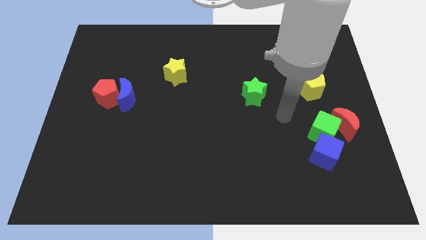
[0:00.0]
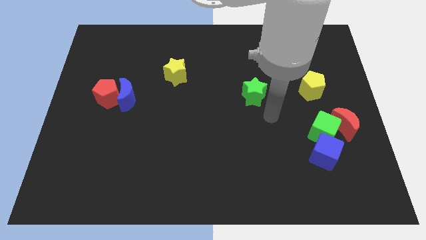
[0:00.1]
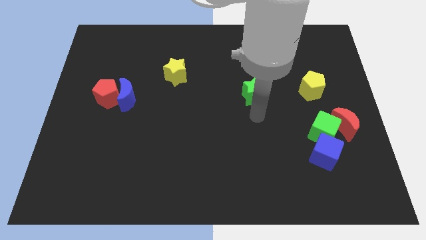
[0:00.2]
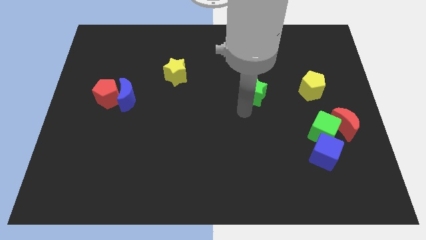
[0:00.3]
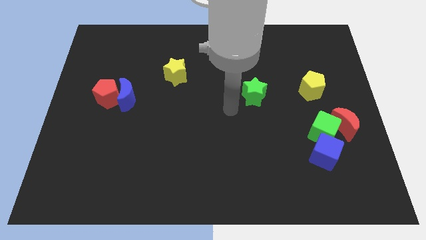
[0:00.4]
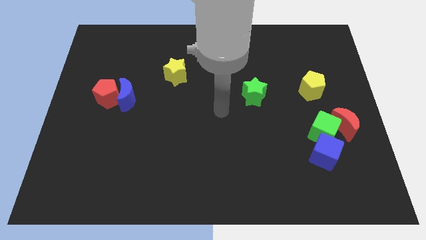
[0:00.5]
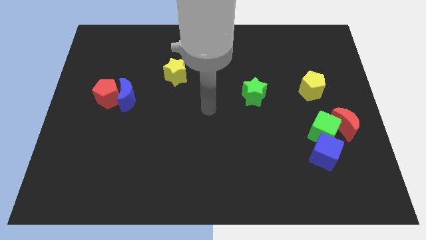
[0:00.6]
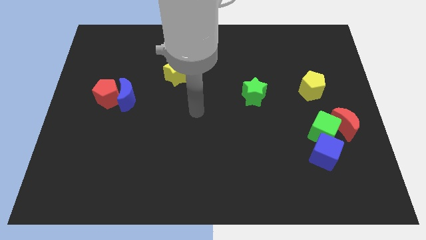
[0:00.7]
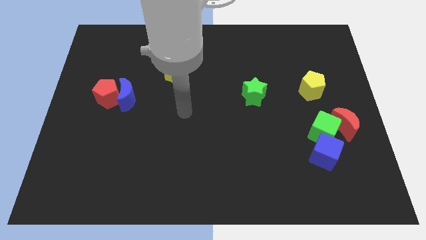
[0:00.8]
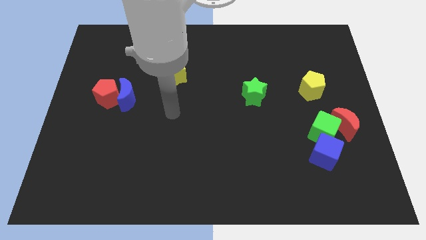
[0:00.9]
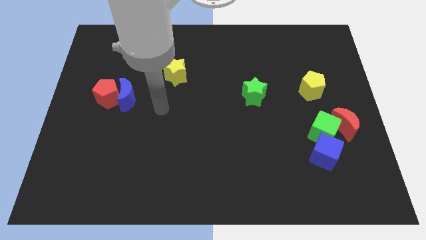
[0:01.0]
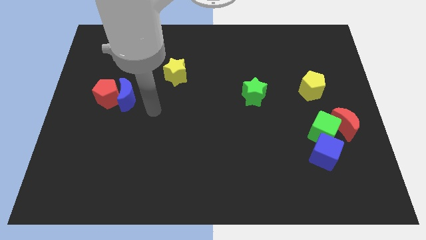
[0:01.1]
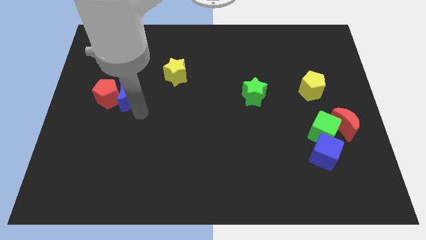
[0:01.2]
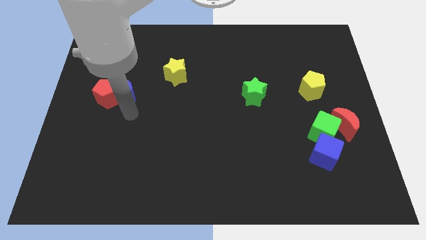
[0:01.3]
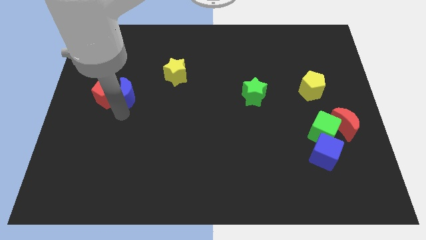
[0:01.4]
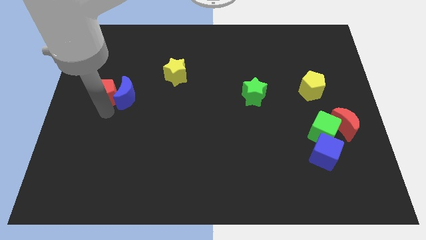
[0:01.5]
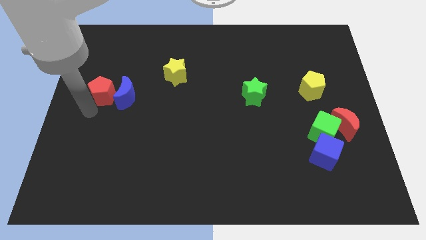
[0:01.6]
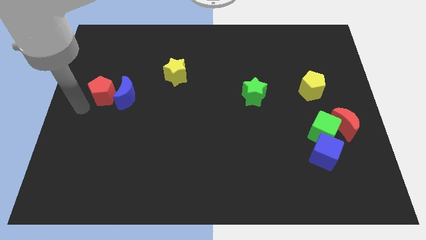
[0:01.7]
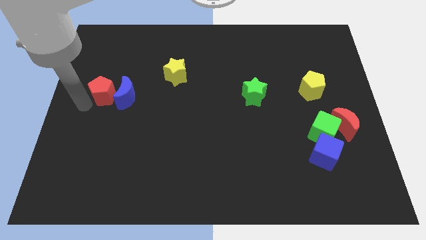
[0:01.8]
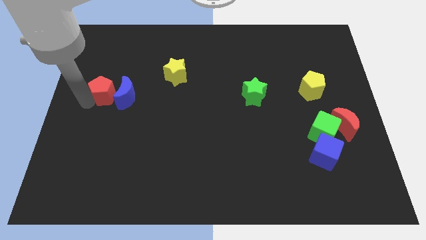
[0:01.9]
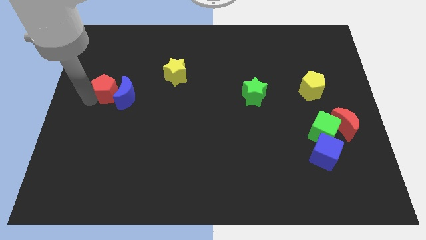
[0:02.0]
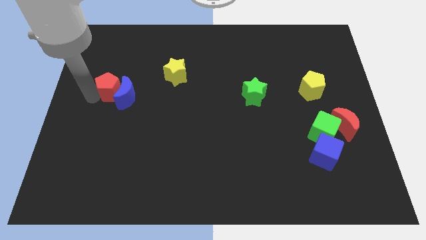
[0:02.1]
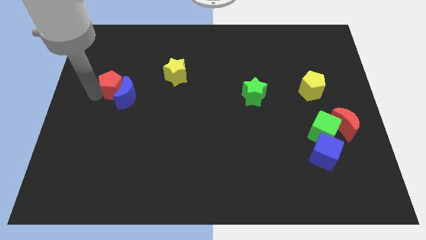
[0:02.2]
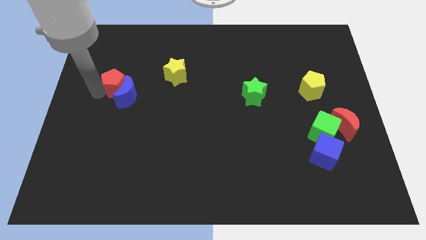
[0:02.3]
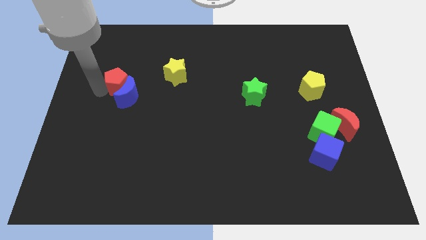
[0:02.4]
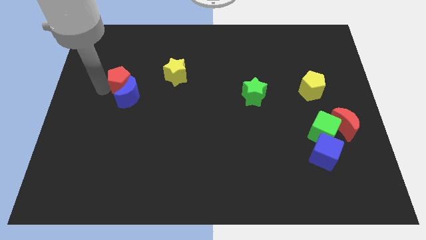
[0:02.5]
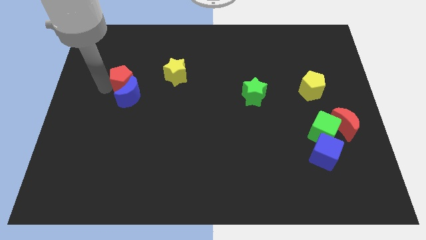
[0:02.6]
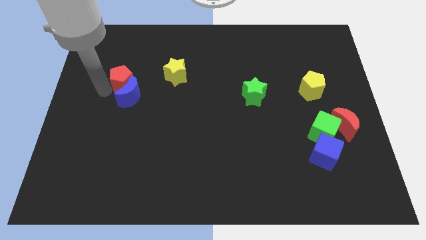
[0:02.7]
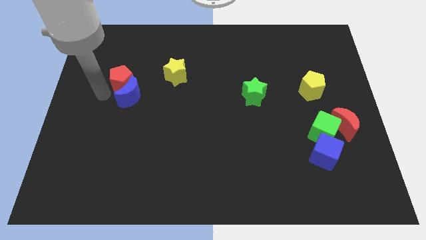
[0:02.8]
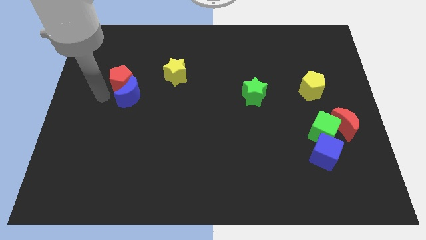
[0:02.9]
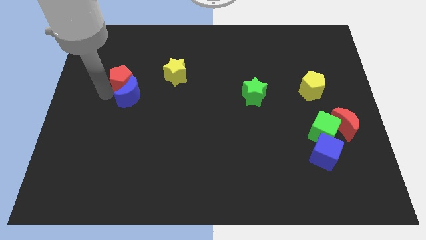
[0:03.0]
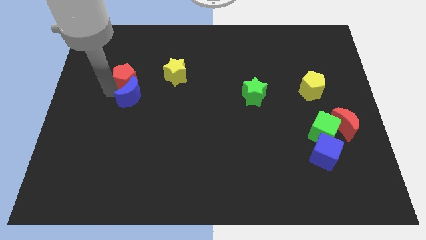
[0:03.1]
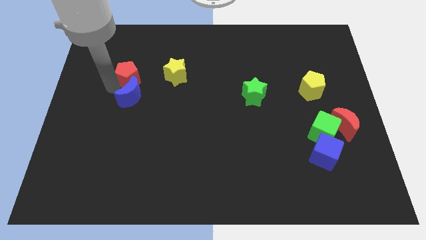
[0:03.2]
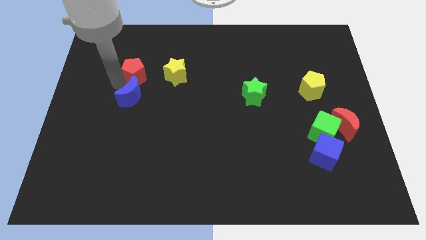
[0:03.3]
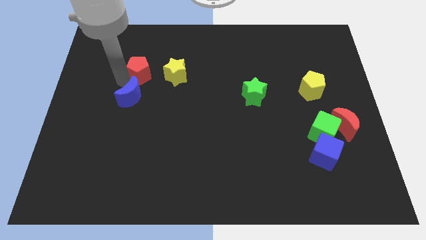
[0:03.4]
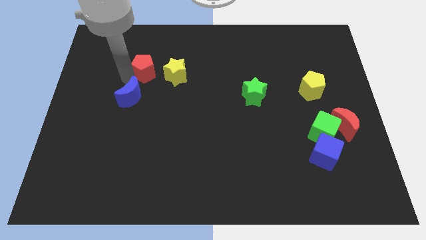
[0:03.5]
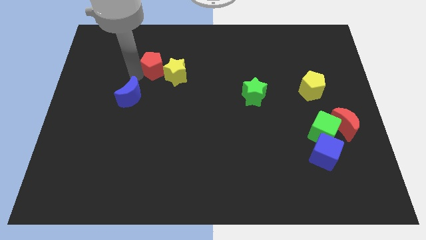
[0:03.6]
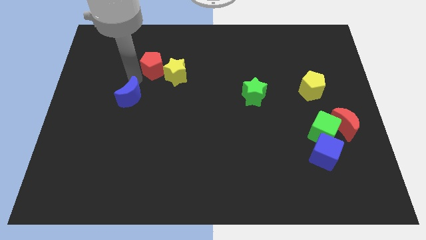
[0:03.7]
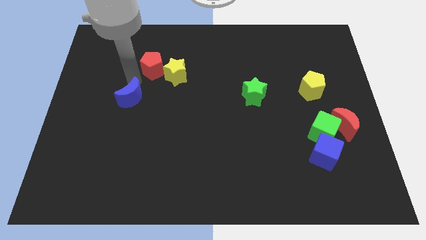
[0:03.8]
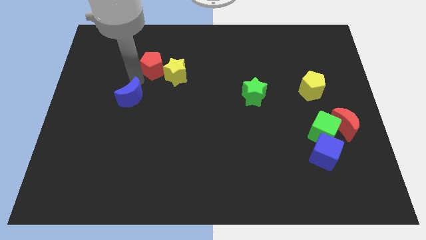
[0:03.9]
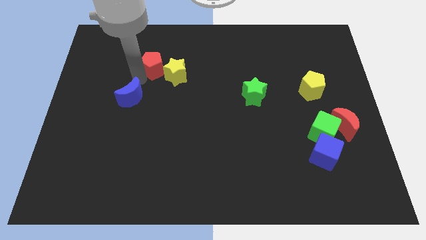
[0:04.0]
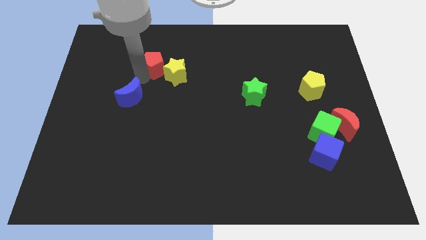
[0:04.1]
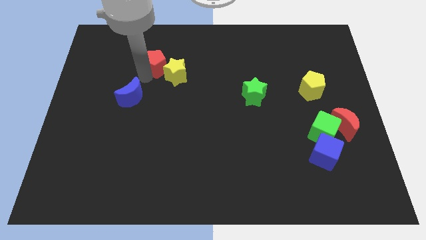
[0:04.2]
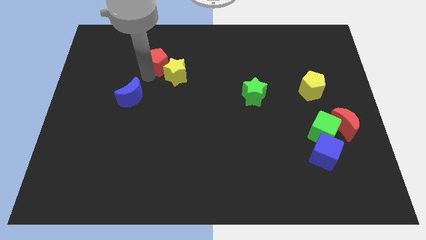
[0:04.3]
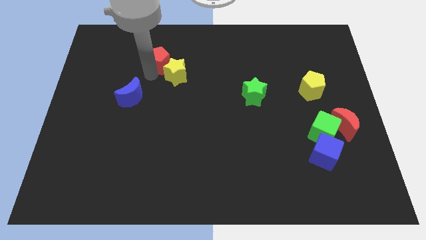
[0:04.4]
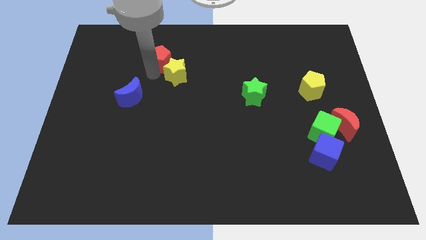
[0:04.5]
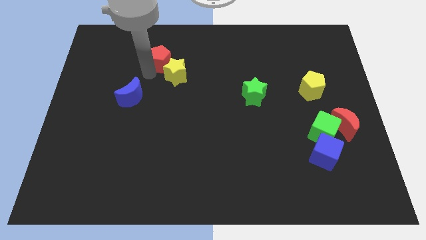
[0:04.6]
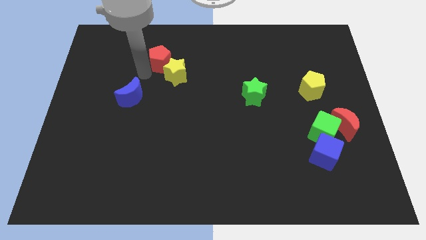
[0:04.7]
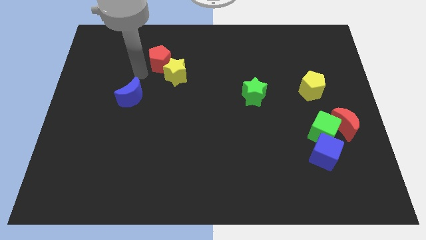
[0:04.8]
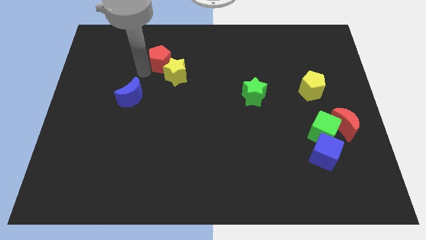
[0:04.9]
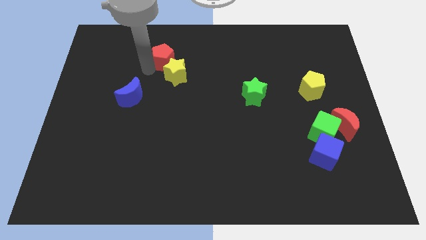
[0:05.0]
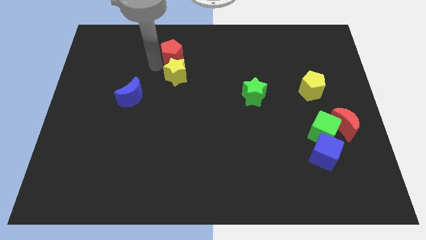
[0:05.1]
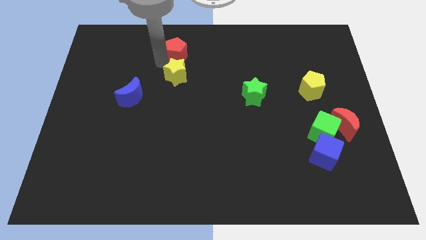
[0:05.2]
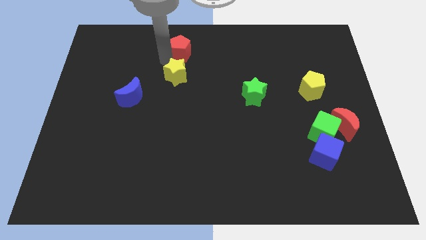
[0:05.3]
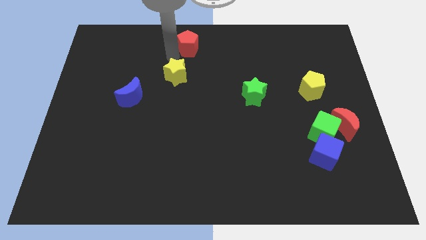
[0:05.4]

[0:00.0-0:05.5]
put the red pentagon to the towards your base
